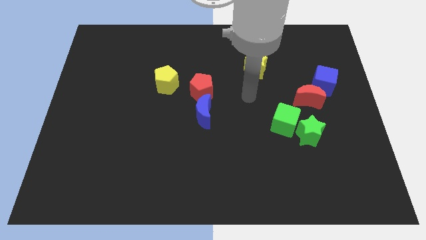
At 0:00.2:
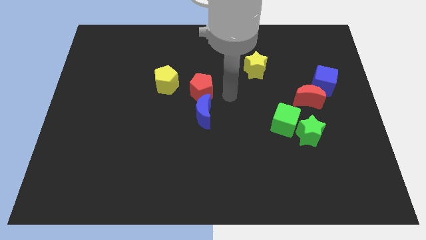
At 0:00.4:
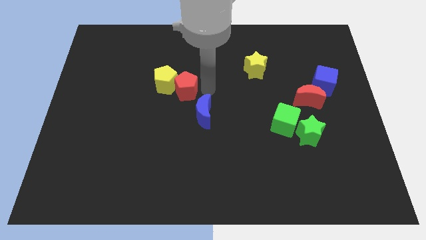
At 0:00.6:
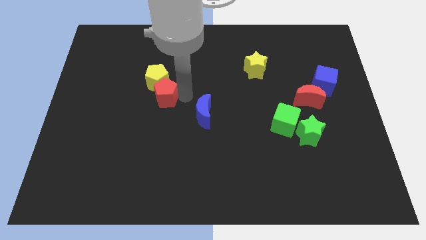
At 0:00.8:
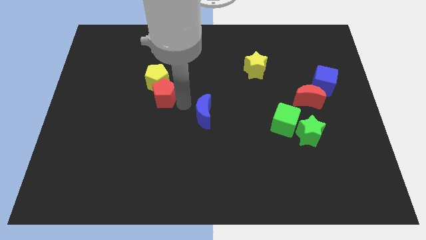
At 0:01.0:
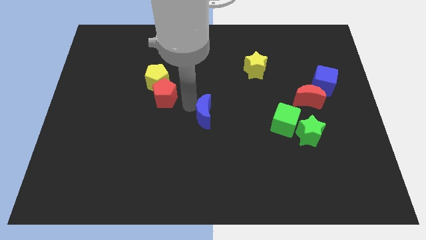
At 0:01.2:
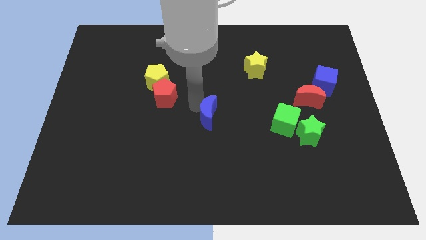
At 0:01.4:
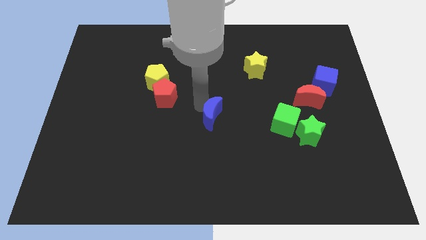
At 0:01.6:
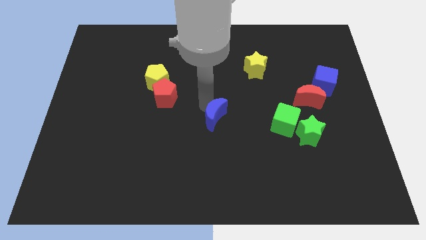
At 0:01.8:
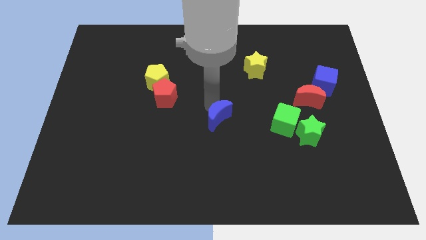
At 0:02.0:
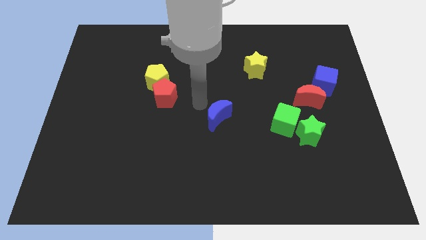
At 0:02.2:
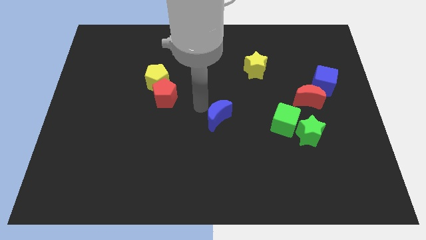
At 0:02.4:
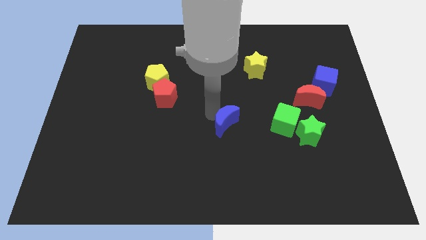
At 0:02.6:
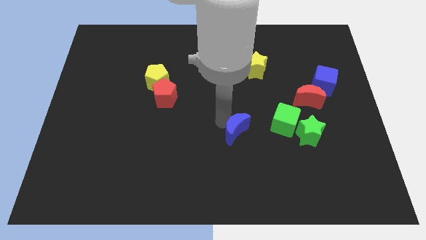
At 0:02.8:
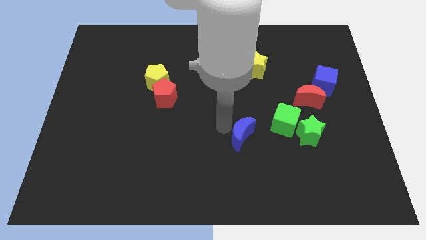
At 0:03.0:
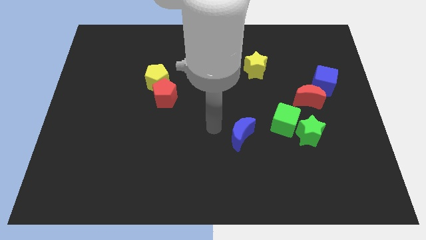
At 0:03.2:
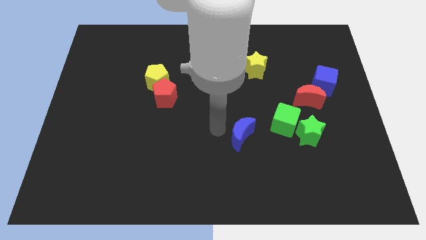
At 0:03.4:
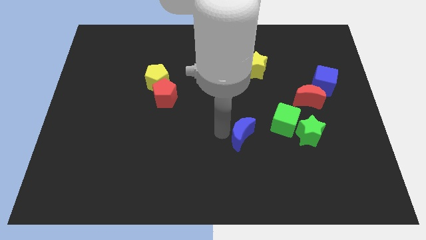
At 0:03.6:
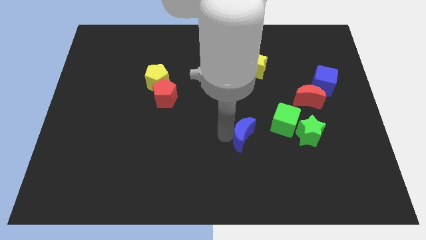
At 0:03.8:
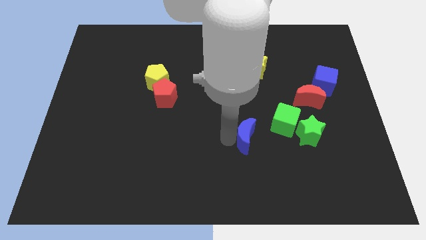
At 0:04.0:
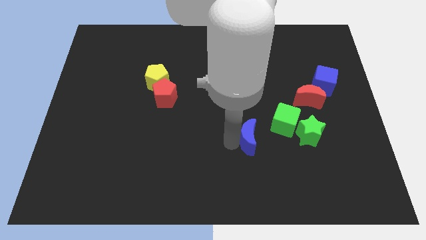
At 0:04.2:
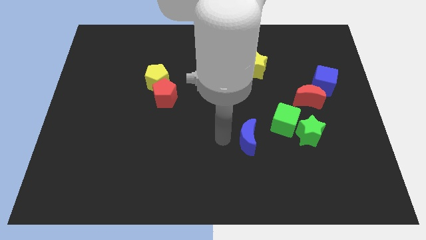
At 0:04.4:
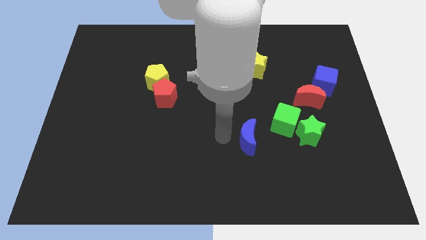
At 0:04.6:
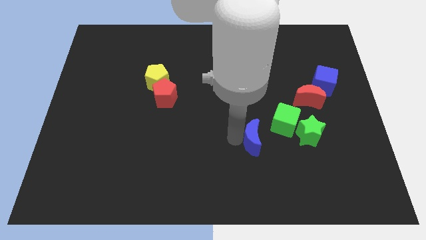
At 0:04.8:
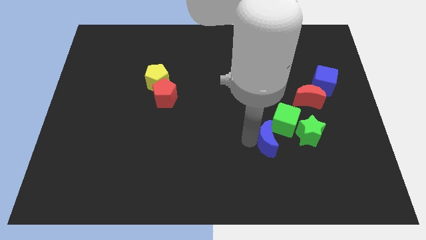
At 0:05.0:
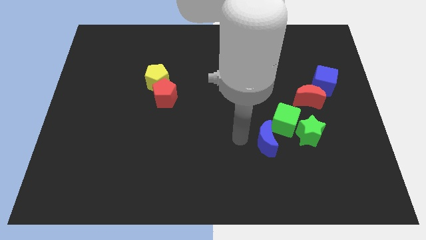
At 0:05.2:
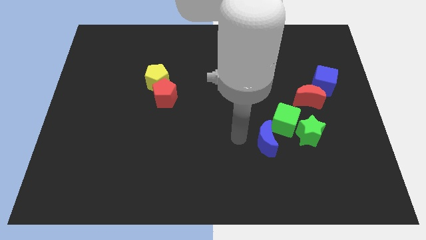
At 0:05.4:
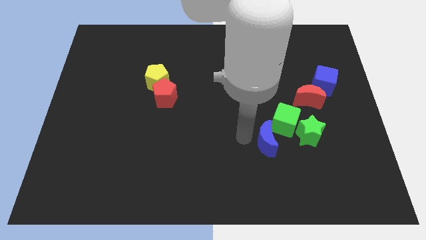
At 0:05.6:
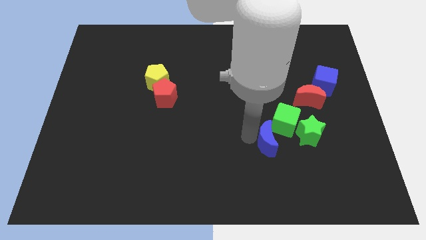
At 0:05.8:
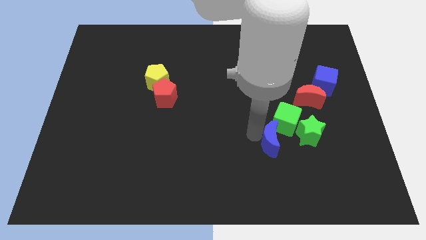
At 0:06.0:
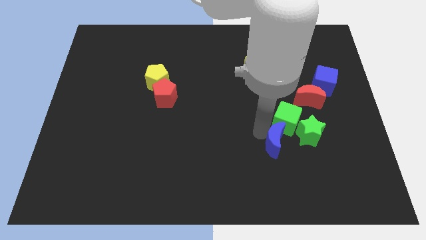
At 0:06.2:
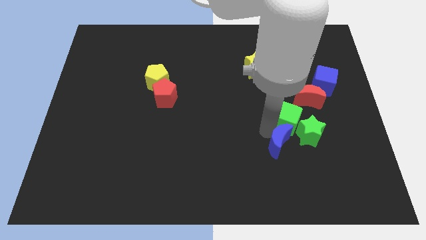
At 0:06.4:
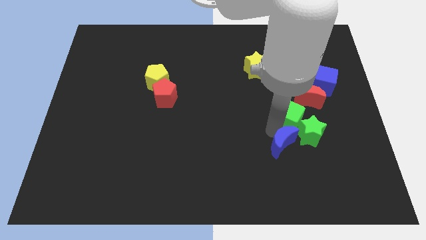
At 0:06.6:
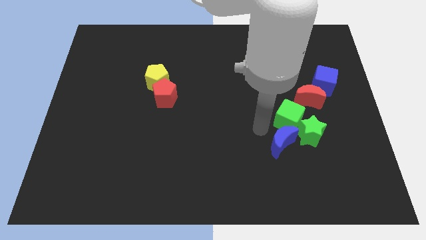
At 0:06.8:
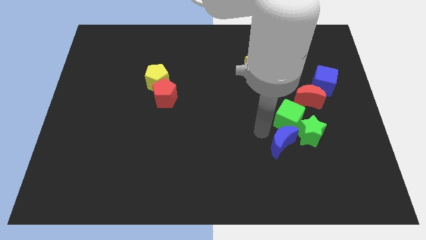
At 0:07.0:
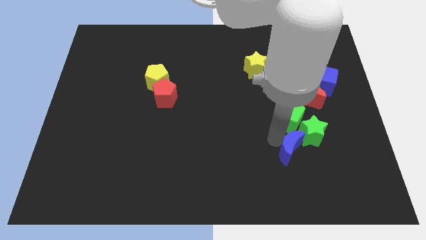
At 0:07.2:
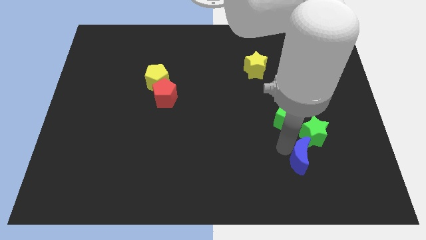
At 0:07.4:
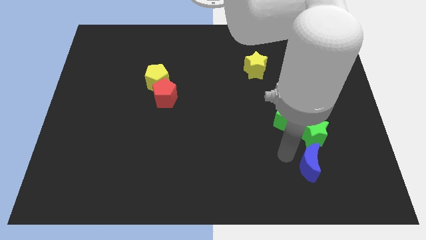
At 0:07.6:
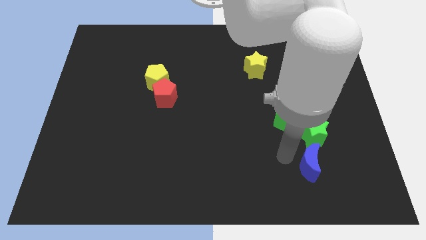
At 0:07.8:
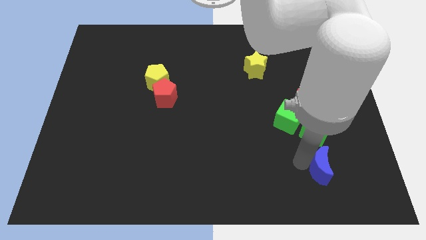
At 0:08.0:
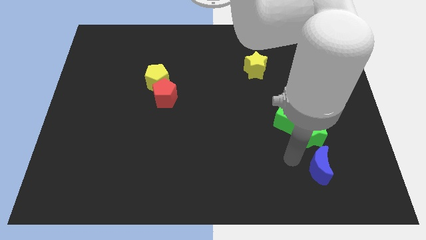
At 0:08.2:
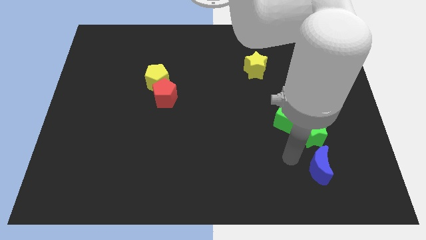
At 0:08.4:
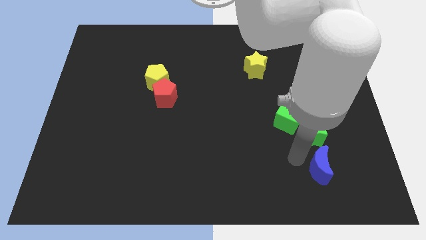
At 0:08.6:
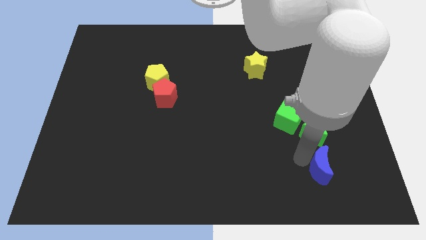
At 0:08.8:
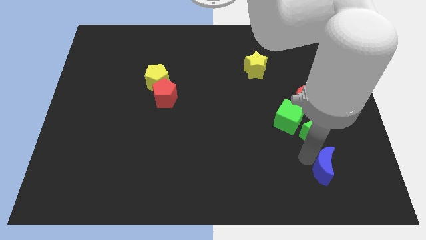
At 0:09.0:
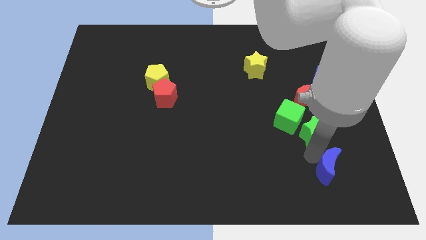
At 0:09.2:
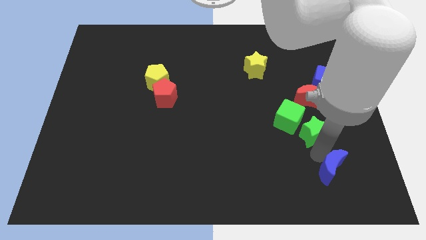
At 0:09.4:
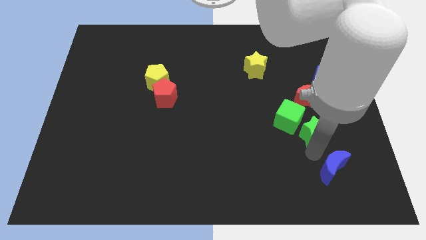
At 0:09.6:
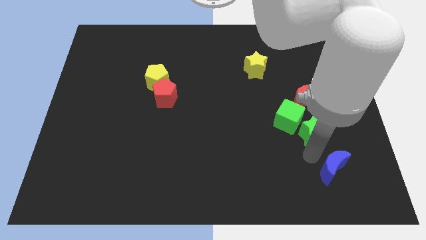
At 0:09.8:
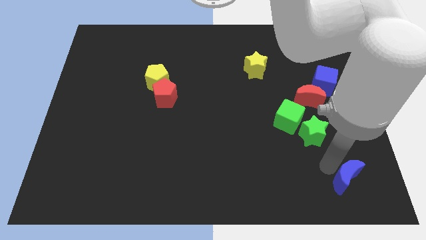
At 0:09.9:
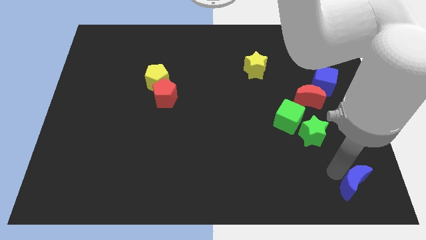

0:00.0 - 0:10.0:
move the blue moon to the bottom right corner

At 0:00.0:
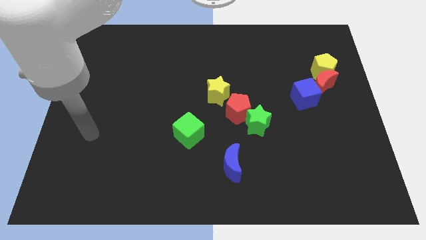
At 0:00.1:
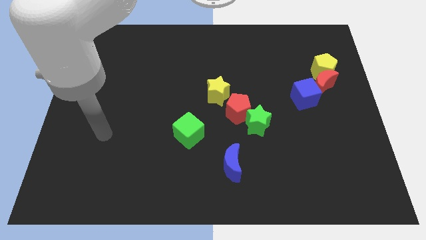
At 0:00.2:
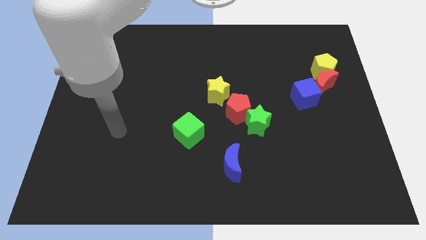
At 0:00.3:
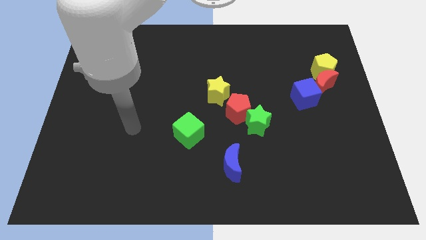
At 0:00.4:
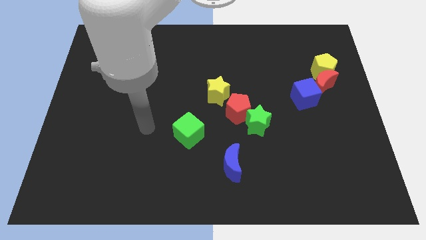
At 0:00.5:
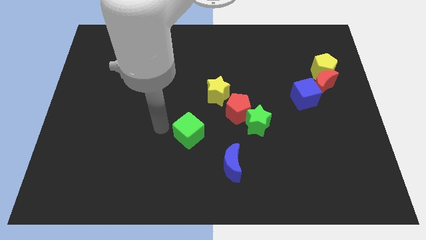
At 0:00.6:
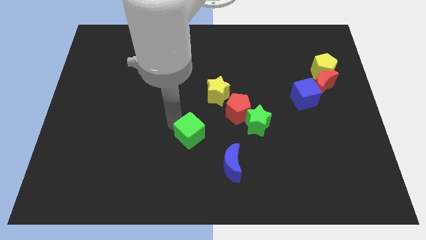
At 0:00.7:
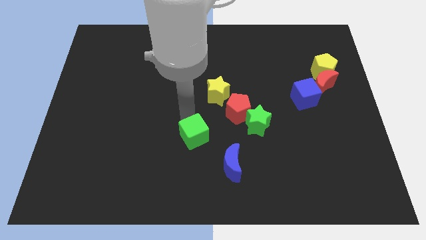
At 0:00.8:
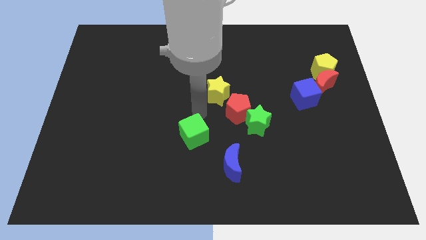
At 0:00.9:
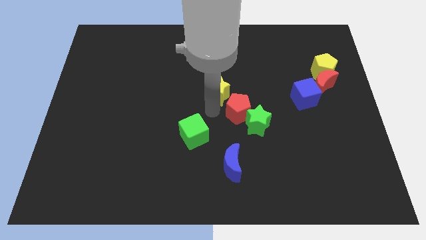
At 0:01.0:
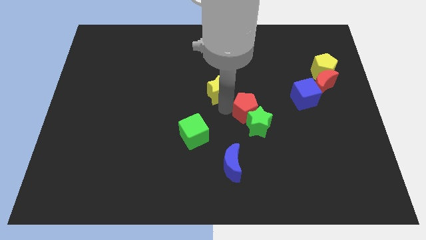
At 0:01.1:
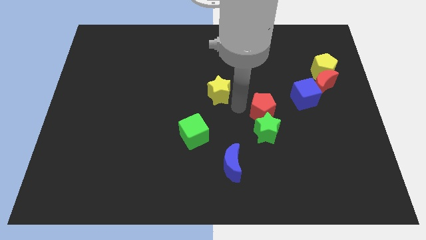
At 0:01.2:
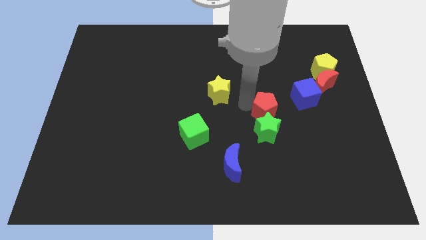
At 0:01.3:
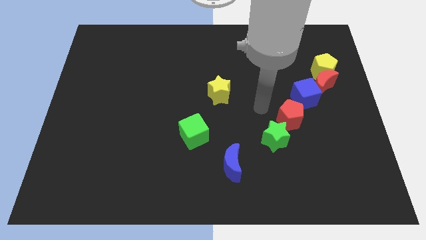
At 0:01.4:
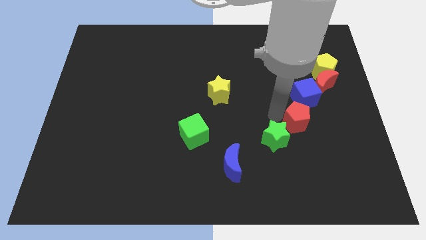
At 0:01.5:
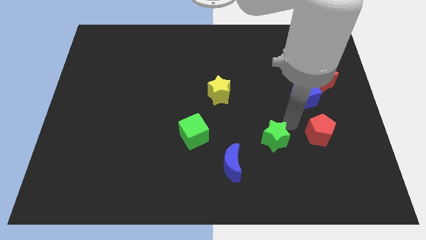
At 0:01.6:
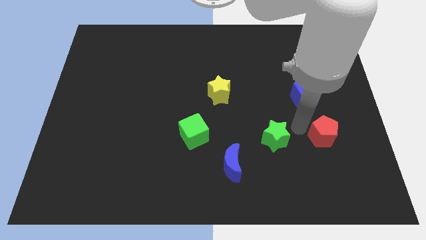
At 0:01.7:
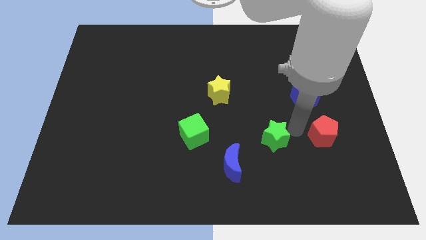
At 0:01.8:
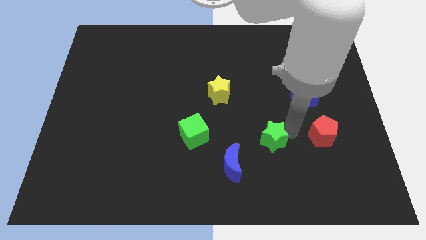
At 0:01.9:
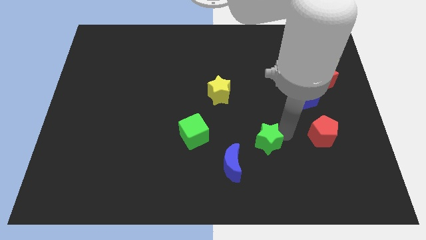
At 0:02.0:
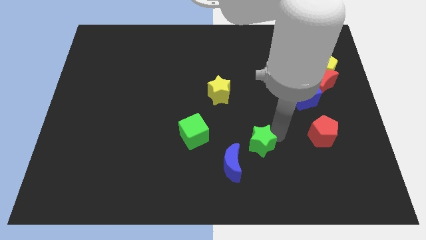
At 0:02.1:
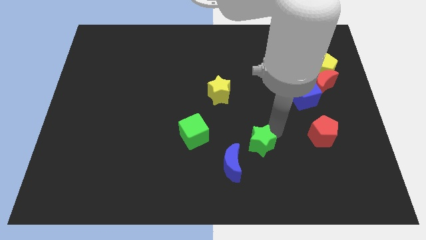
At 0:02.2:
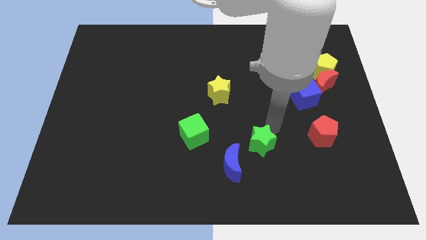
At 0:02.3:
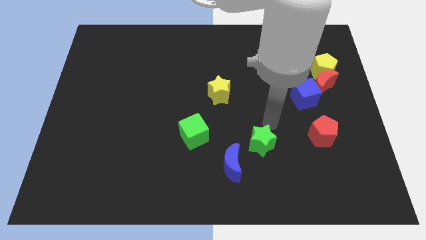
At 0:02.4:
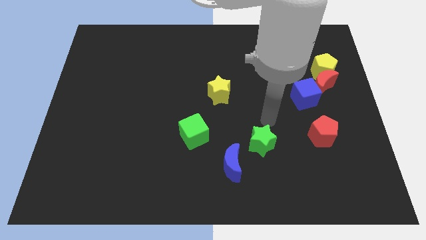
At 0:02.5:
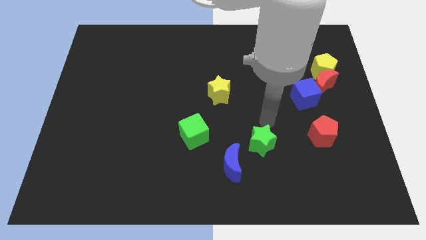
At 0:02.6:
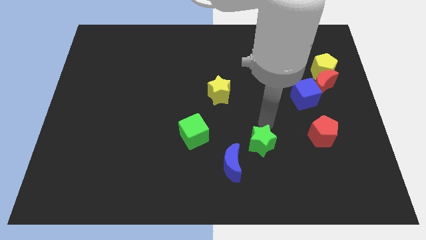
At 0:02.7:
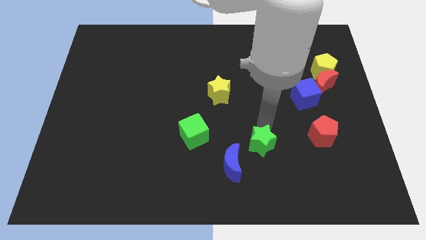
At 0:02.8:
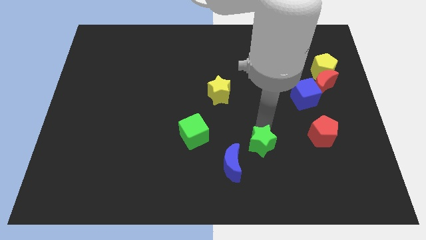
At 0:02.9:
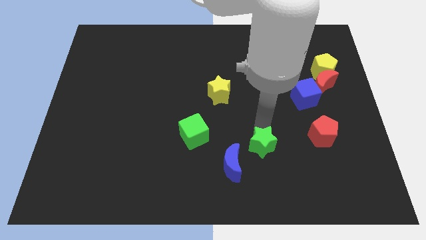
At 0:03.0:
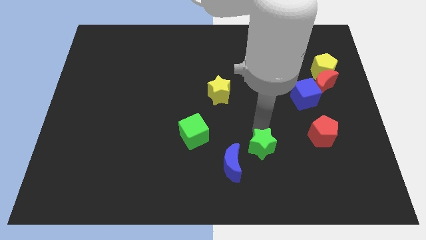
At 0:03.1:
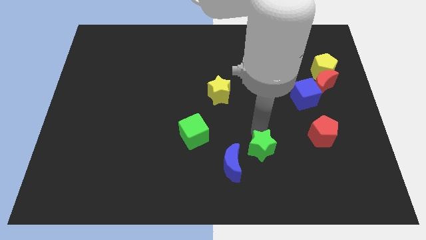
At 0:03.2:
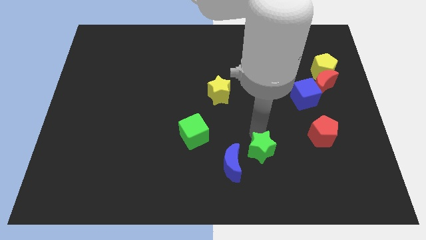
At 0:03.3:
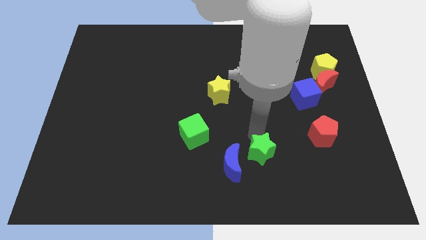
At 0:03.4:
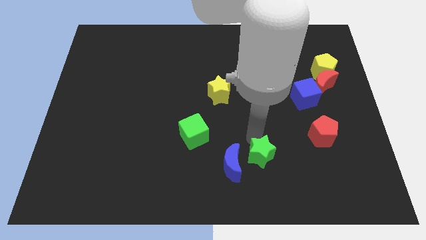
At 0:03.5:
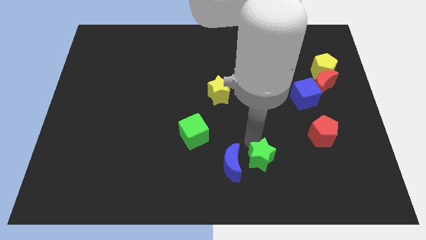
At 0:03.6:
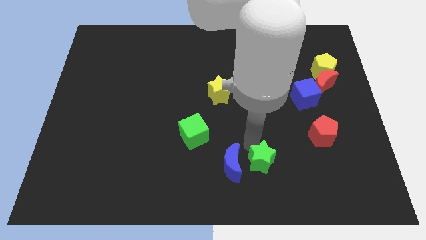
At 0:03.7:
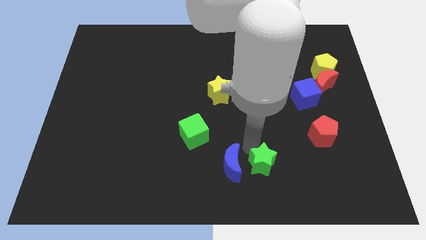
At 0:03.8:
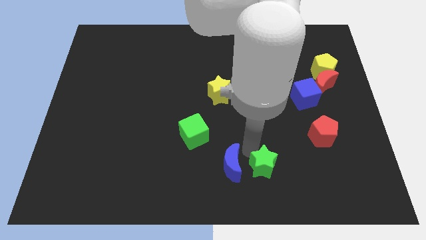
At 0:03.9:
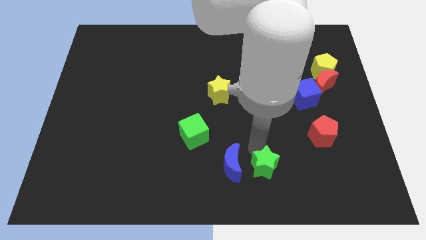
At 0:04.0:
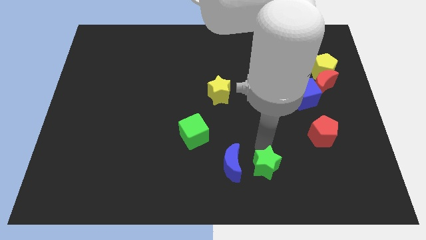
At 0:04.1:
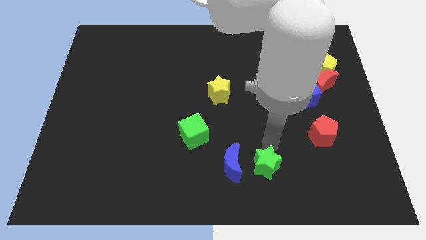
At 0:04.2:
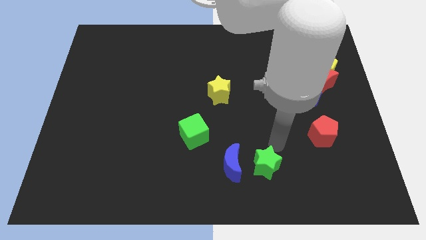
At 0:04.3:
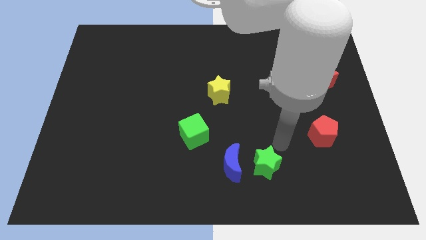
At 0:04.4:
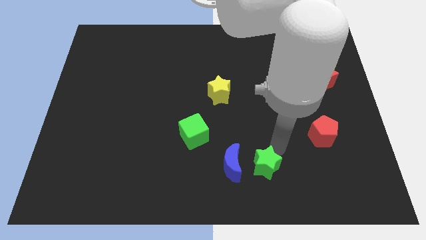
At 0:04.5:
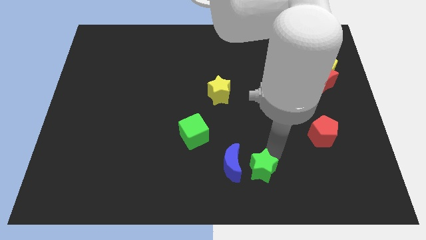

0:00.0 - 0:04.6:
put the green star to the bottom
